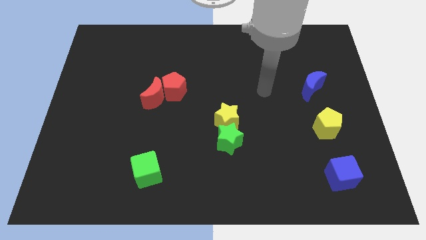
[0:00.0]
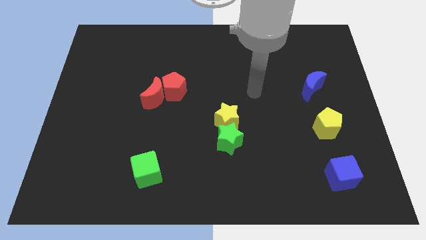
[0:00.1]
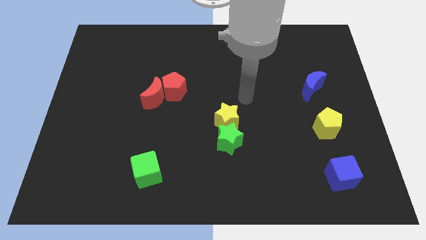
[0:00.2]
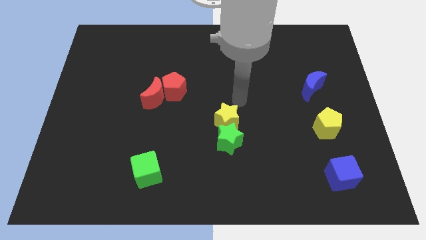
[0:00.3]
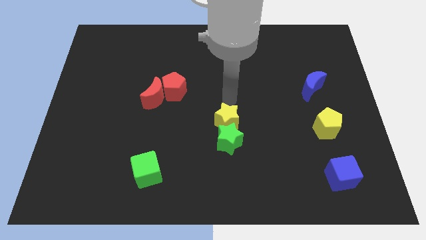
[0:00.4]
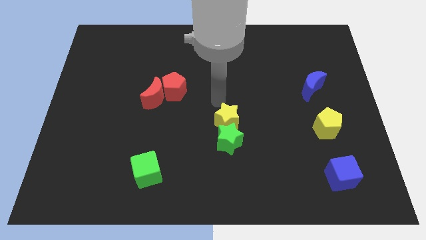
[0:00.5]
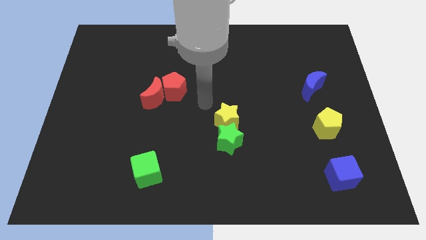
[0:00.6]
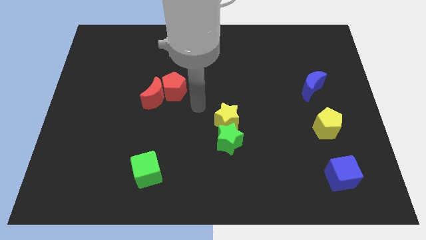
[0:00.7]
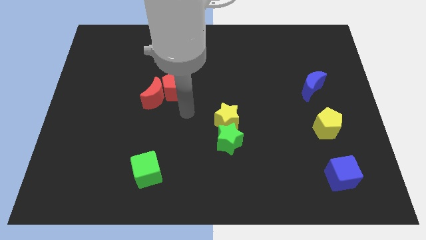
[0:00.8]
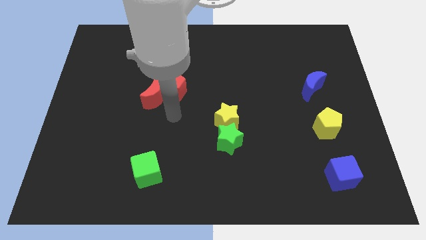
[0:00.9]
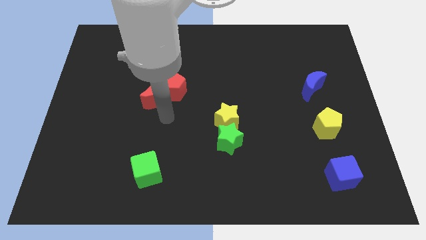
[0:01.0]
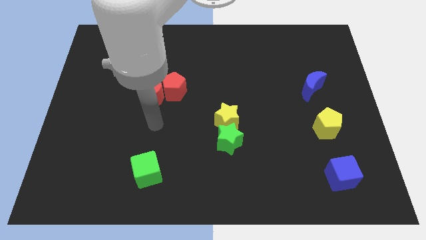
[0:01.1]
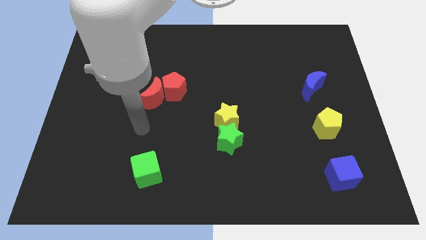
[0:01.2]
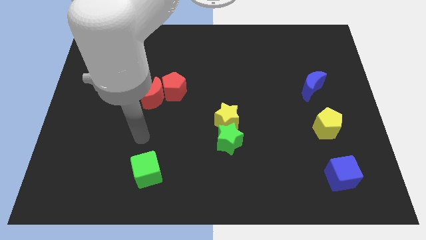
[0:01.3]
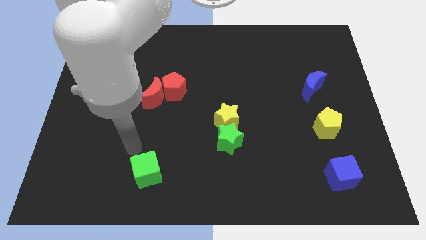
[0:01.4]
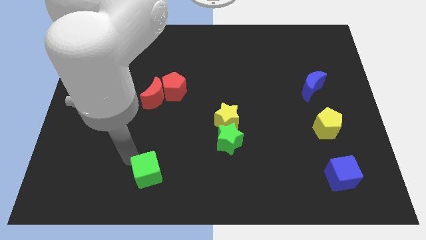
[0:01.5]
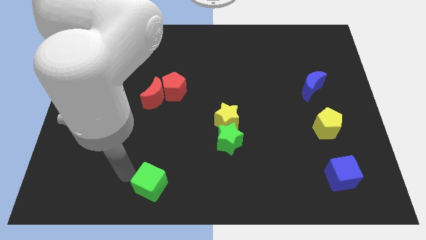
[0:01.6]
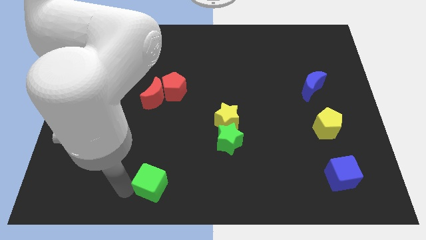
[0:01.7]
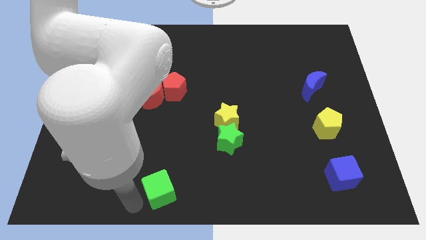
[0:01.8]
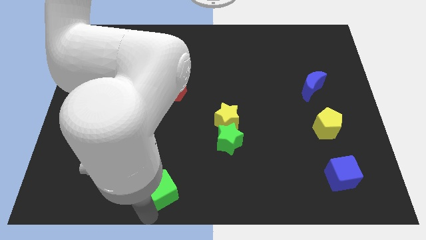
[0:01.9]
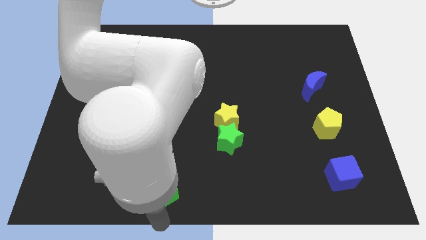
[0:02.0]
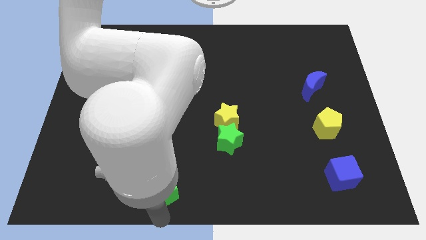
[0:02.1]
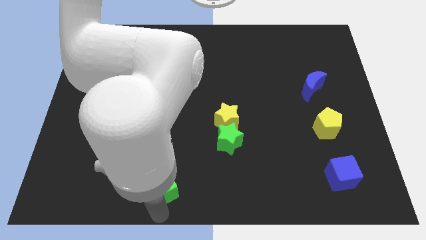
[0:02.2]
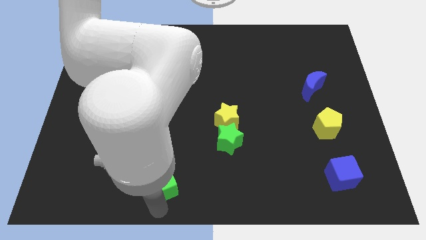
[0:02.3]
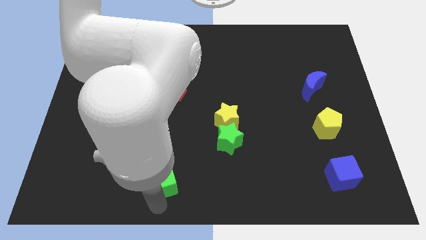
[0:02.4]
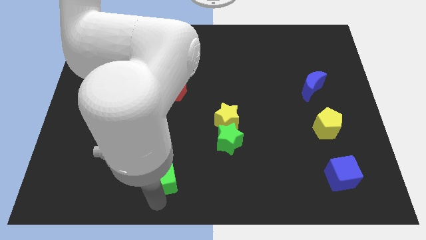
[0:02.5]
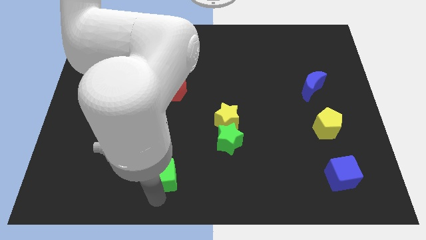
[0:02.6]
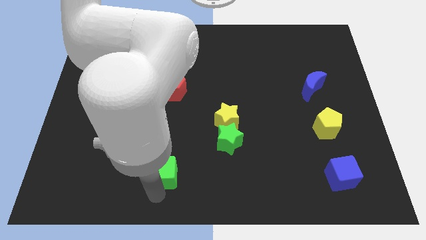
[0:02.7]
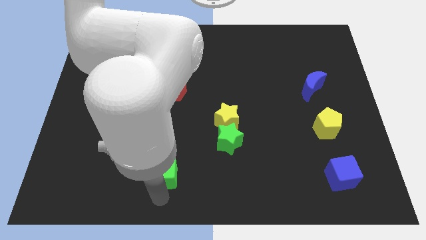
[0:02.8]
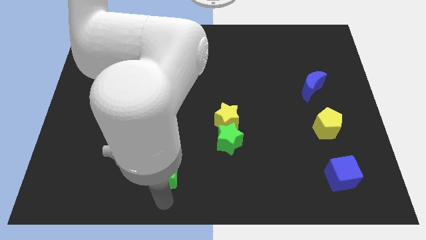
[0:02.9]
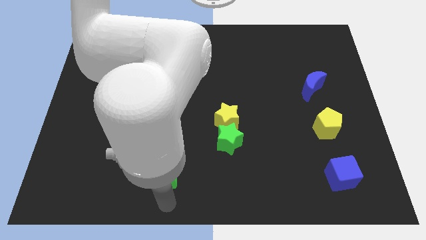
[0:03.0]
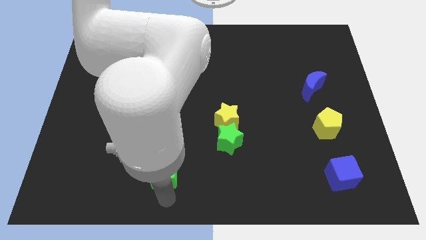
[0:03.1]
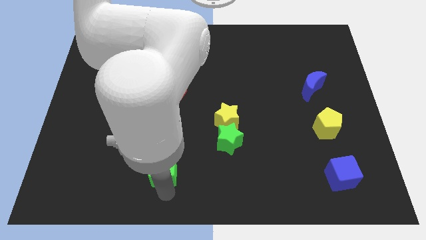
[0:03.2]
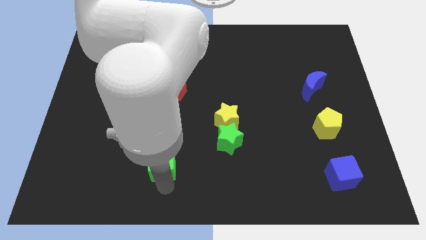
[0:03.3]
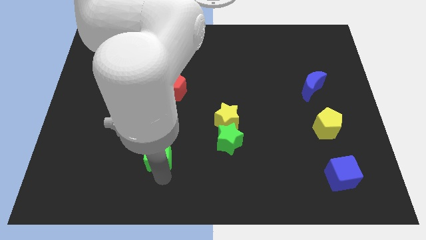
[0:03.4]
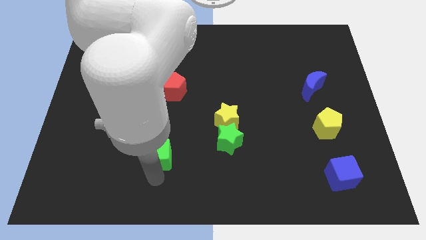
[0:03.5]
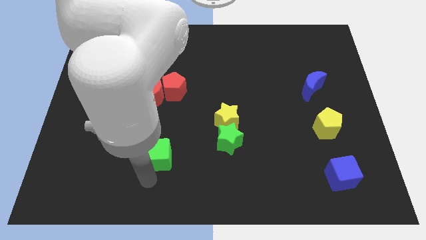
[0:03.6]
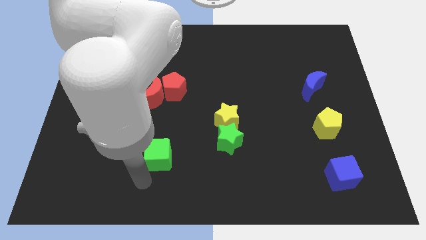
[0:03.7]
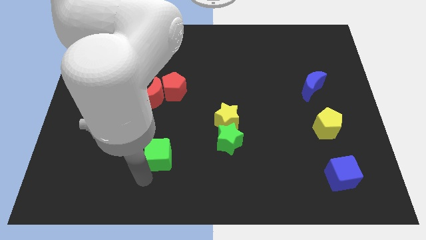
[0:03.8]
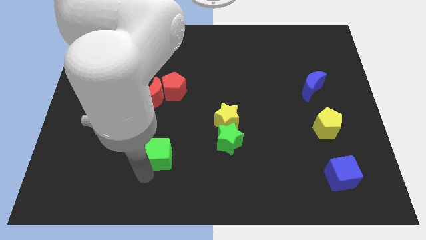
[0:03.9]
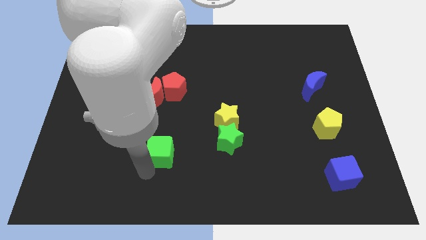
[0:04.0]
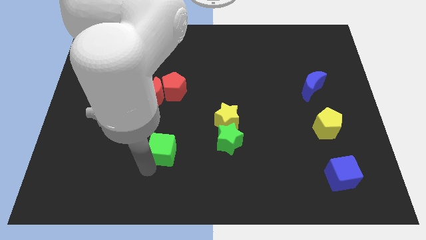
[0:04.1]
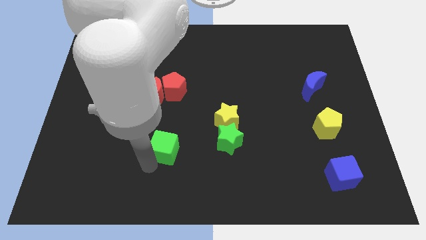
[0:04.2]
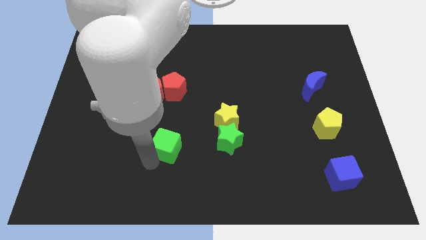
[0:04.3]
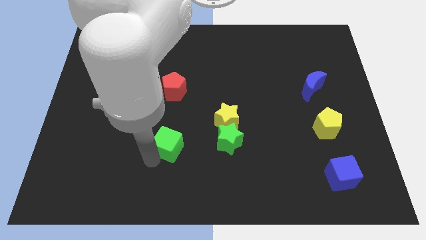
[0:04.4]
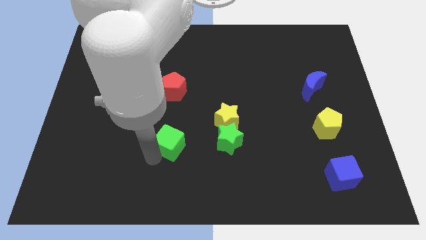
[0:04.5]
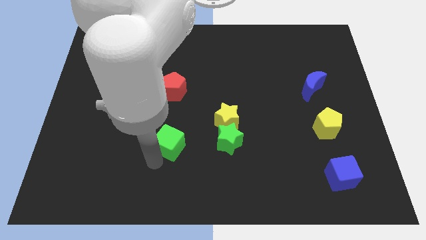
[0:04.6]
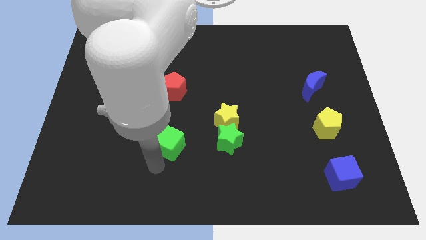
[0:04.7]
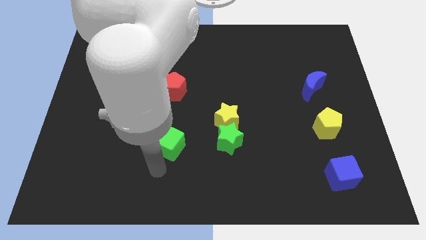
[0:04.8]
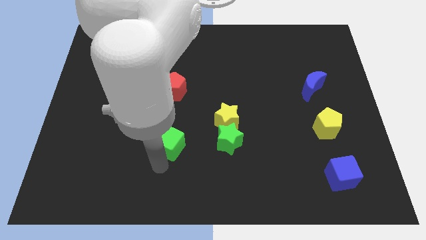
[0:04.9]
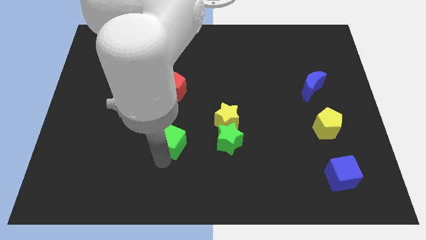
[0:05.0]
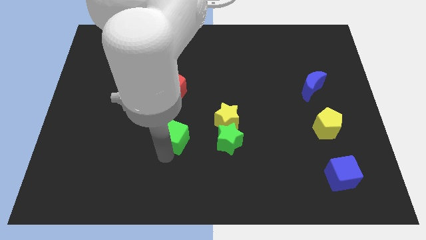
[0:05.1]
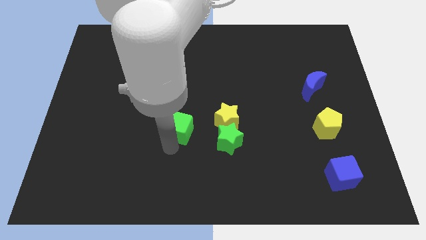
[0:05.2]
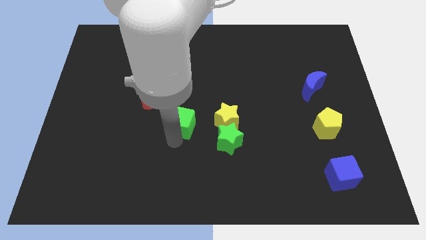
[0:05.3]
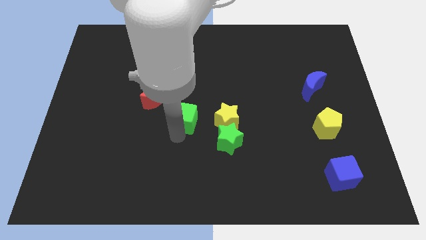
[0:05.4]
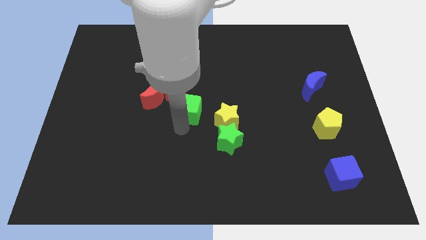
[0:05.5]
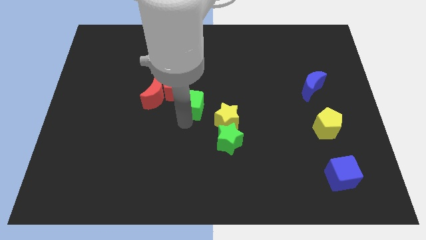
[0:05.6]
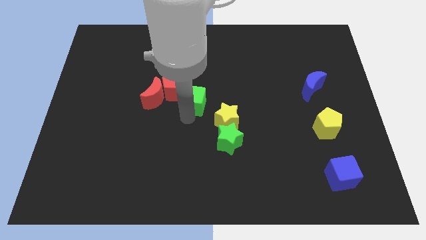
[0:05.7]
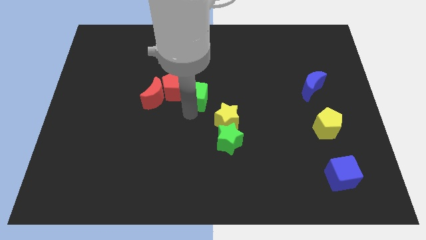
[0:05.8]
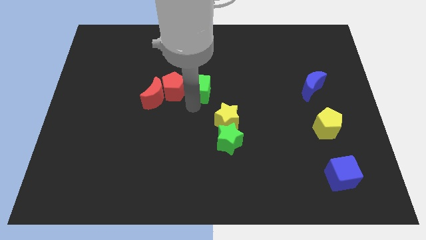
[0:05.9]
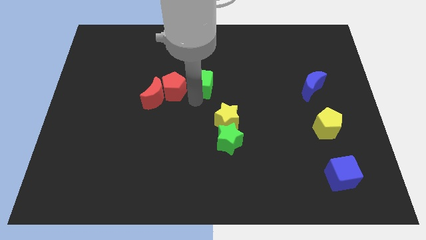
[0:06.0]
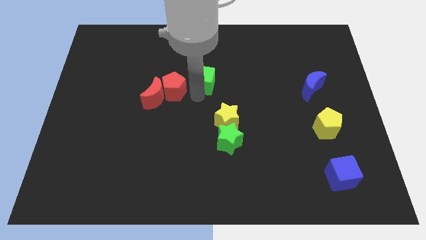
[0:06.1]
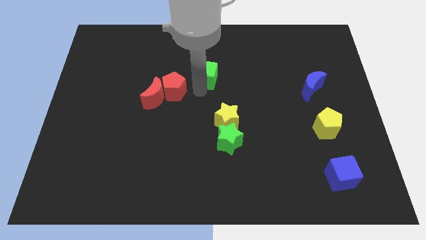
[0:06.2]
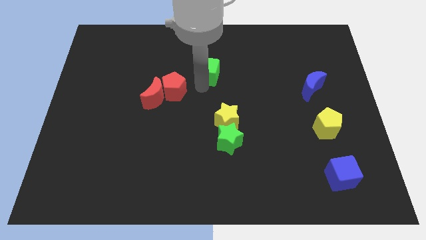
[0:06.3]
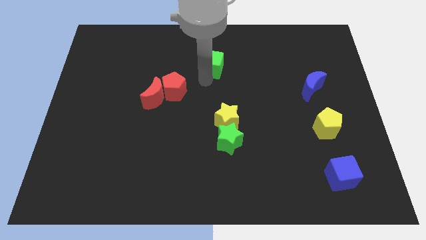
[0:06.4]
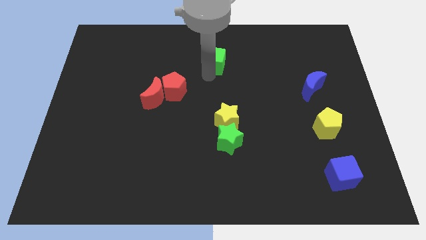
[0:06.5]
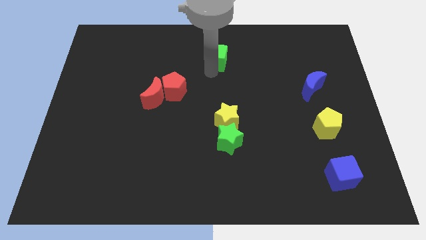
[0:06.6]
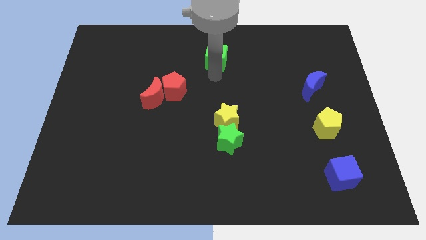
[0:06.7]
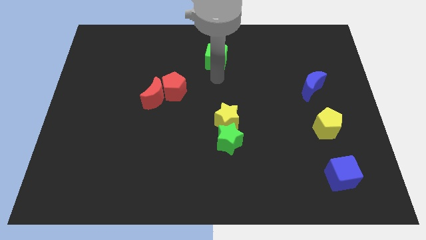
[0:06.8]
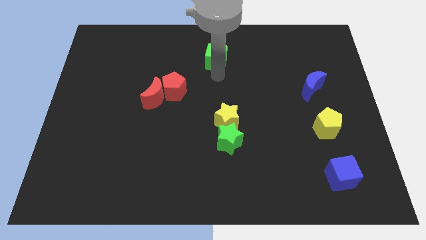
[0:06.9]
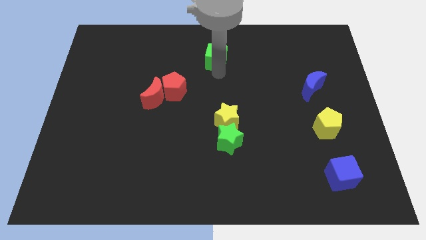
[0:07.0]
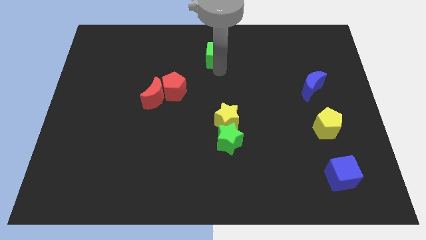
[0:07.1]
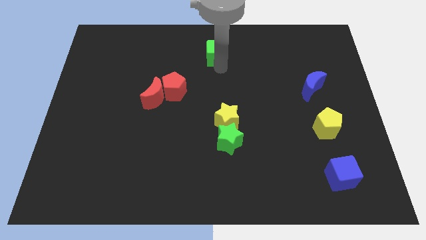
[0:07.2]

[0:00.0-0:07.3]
push the green cube to the top
